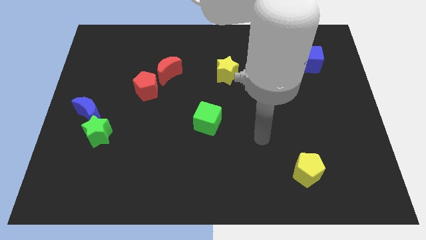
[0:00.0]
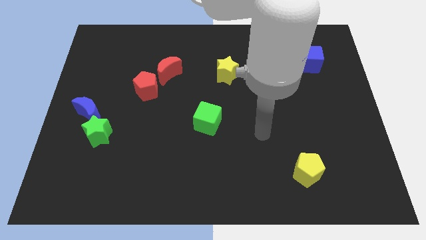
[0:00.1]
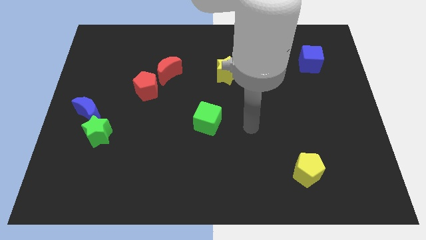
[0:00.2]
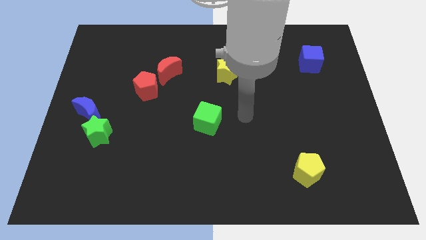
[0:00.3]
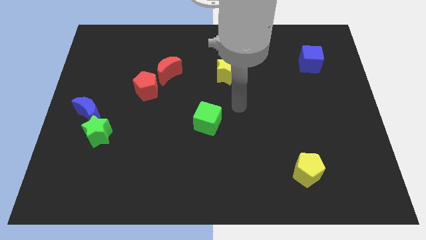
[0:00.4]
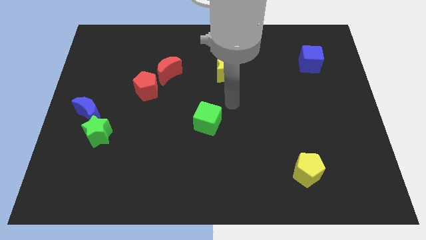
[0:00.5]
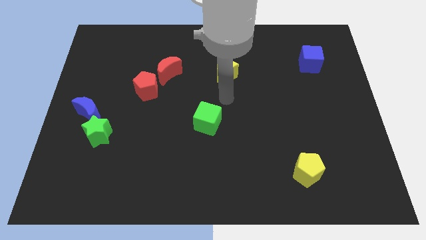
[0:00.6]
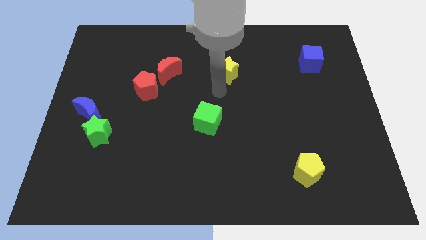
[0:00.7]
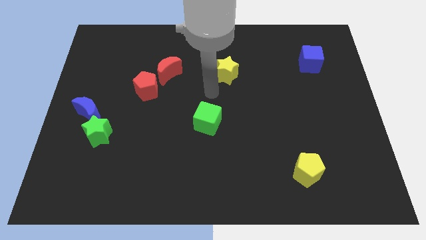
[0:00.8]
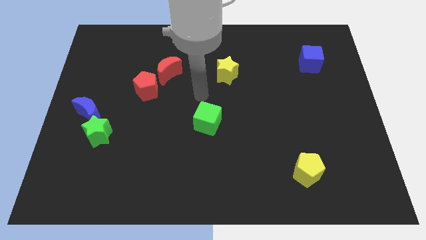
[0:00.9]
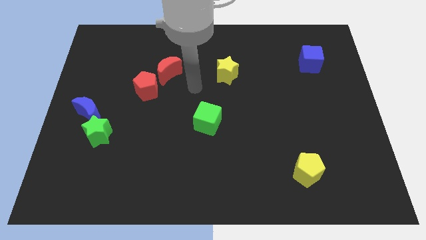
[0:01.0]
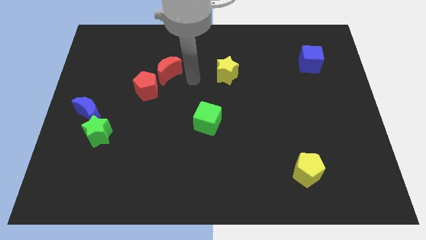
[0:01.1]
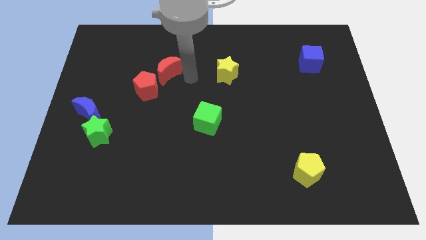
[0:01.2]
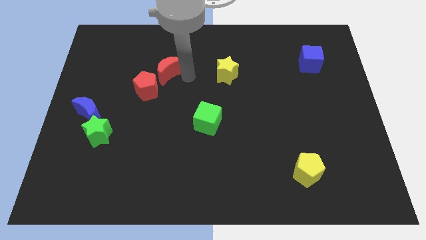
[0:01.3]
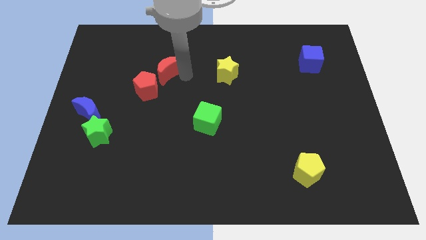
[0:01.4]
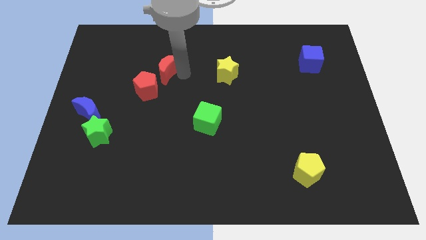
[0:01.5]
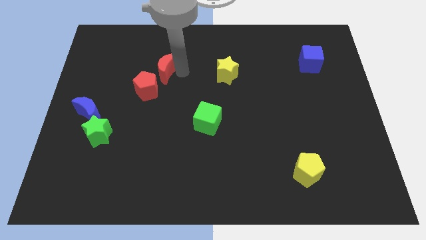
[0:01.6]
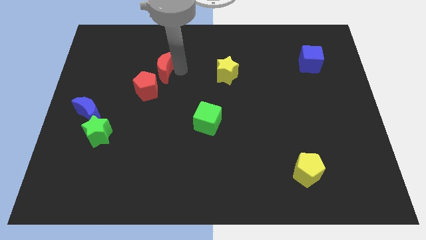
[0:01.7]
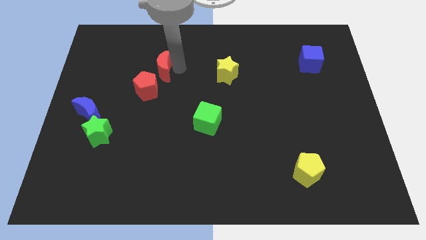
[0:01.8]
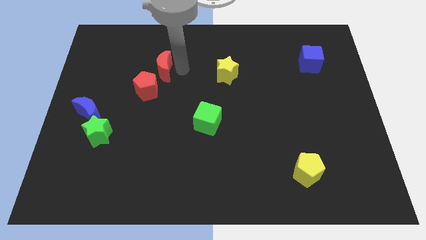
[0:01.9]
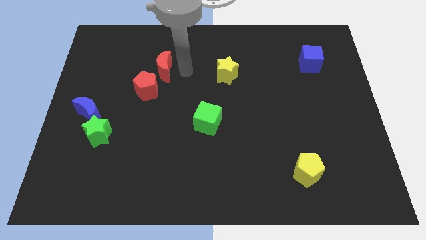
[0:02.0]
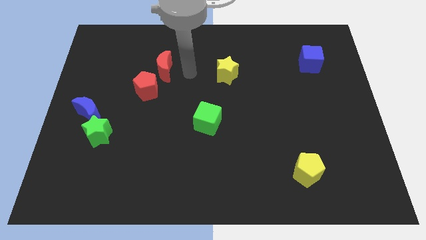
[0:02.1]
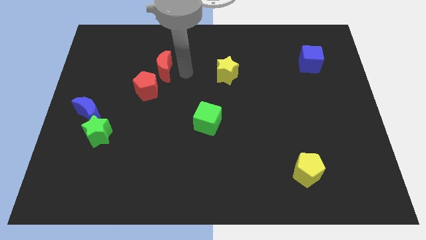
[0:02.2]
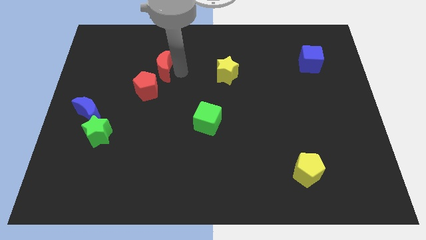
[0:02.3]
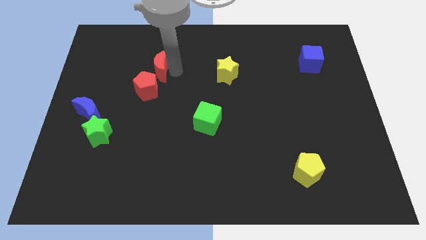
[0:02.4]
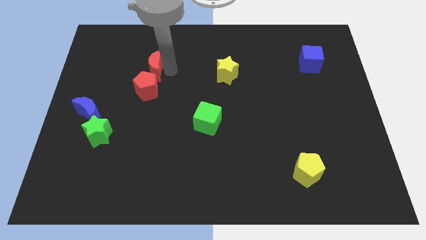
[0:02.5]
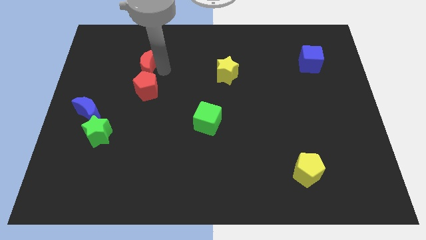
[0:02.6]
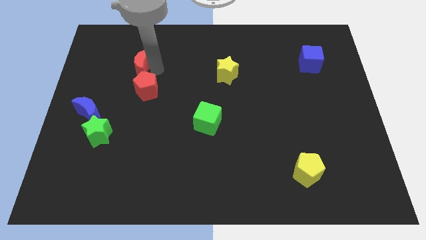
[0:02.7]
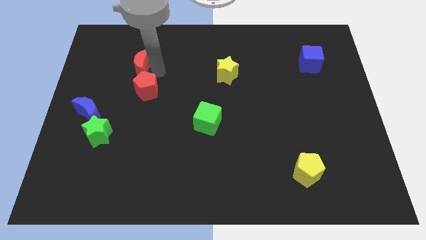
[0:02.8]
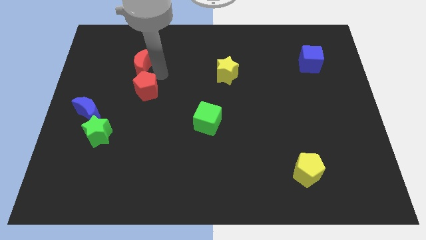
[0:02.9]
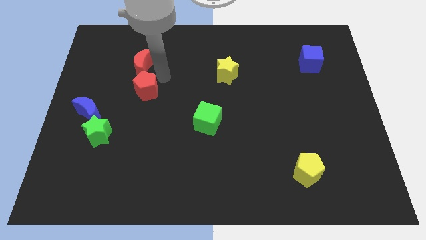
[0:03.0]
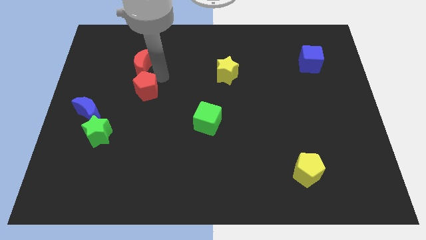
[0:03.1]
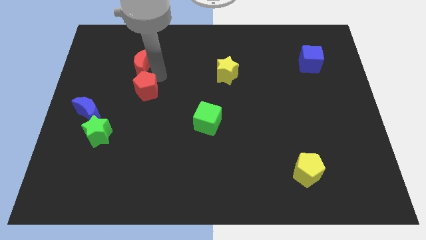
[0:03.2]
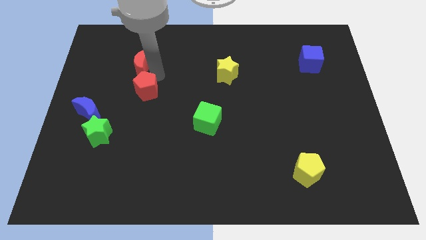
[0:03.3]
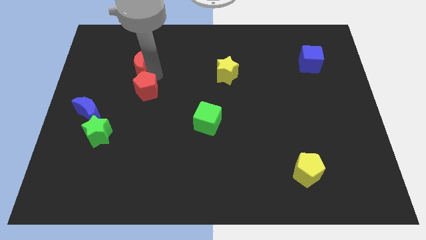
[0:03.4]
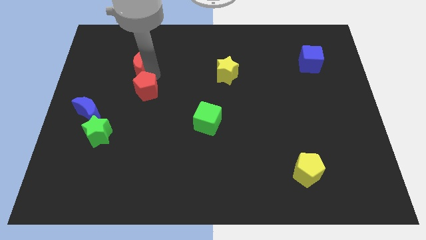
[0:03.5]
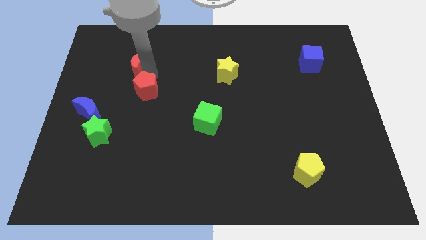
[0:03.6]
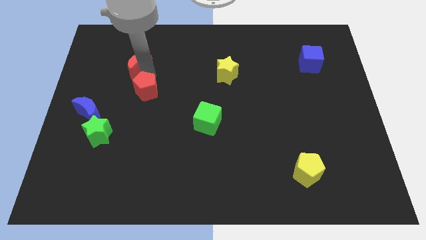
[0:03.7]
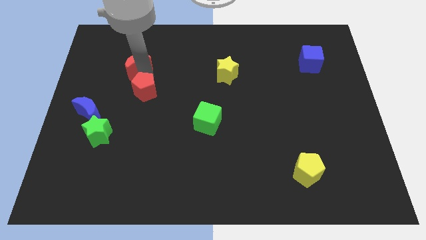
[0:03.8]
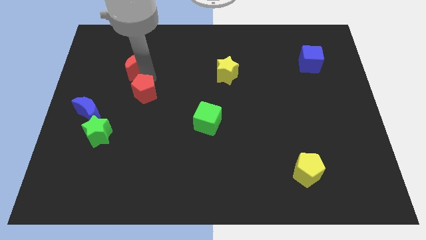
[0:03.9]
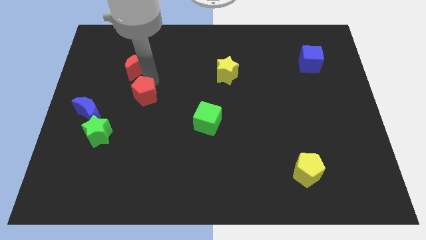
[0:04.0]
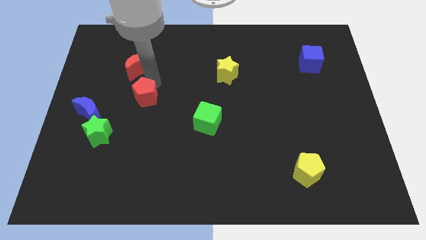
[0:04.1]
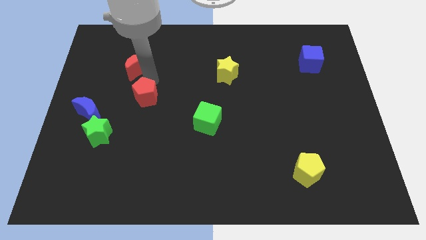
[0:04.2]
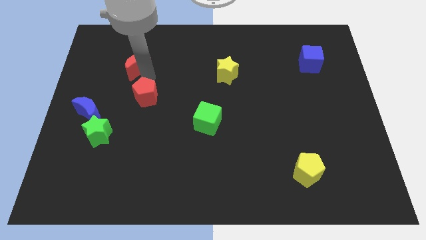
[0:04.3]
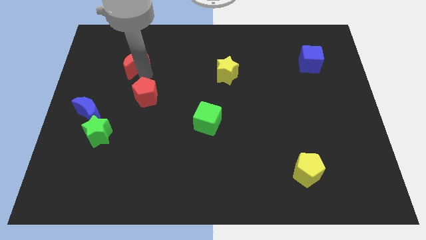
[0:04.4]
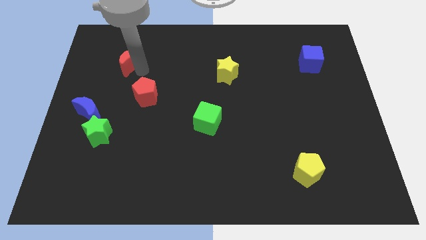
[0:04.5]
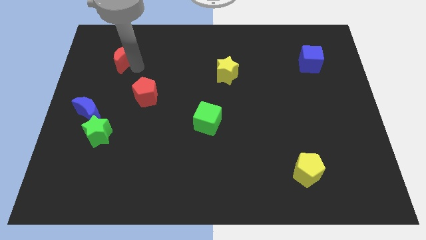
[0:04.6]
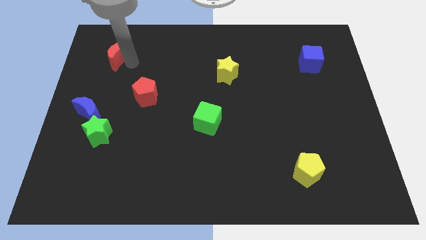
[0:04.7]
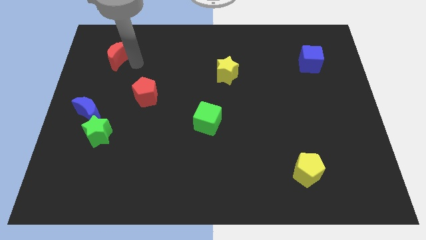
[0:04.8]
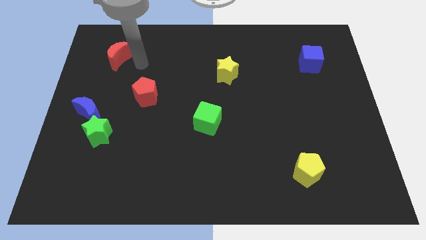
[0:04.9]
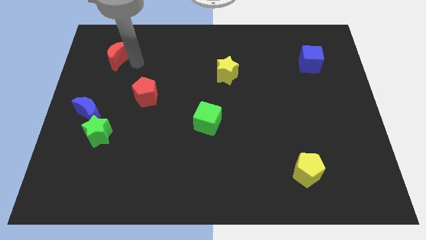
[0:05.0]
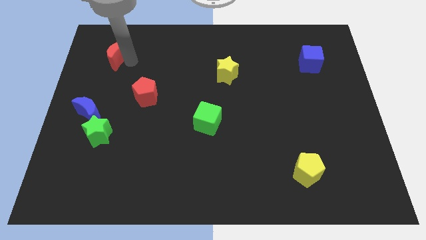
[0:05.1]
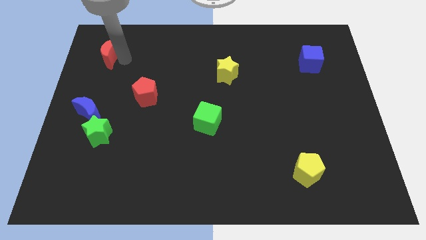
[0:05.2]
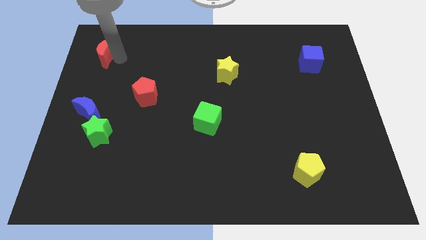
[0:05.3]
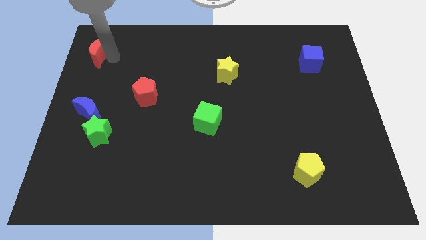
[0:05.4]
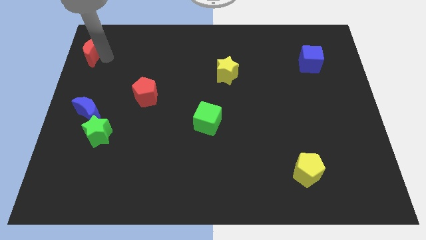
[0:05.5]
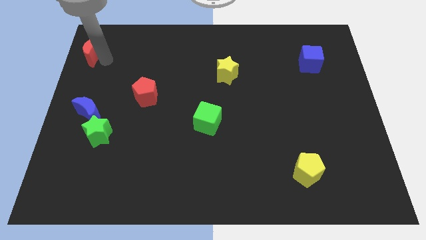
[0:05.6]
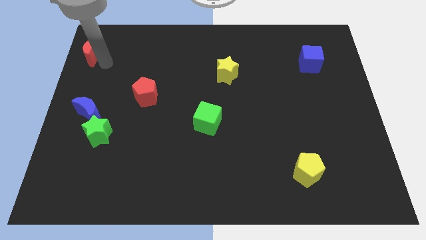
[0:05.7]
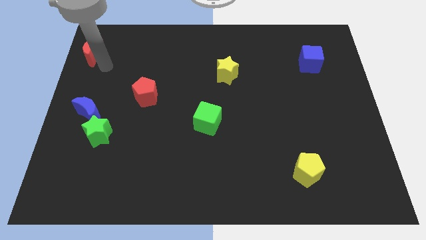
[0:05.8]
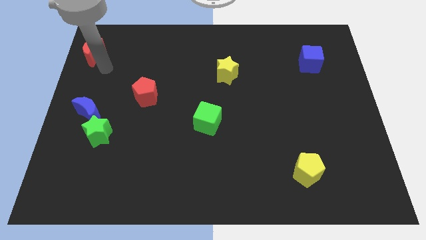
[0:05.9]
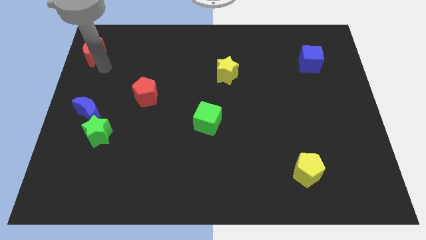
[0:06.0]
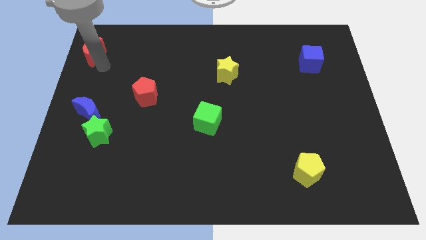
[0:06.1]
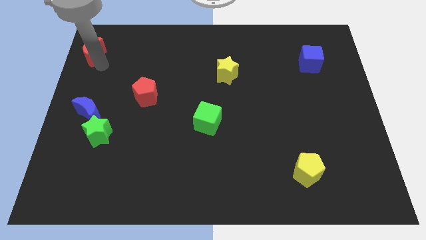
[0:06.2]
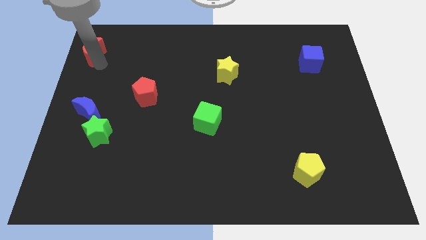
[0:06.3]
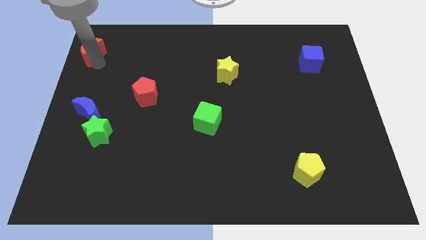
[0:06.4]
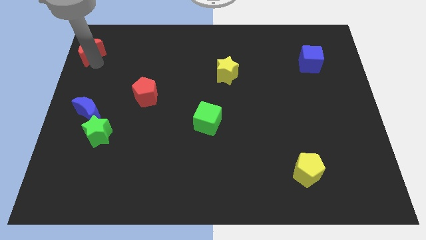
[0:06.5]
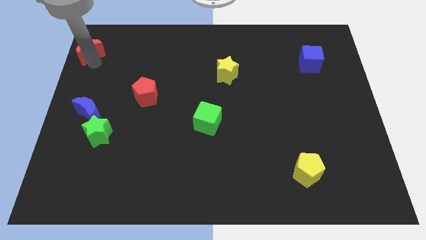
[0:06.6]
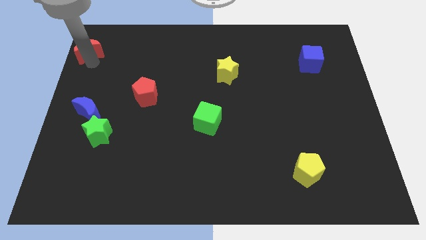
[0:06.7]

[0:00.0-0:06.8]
put the red moon to the top left

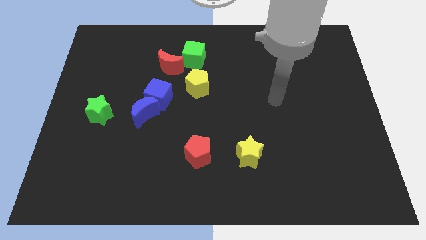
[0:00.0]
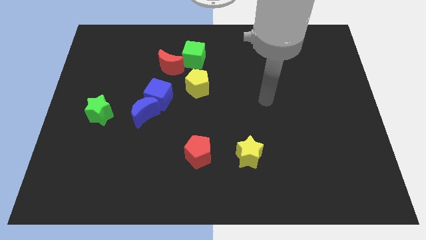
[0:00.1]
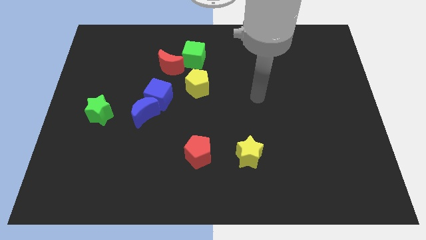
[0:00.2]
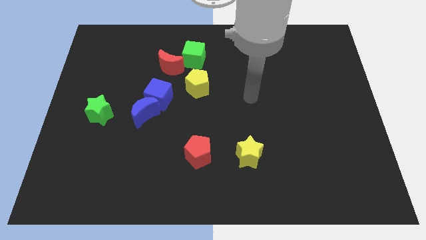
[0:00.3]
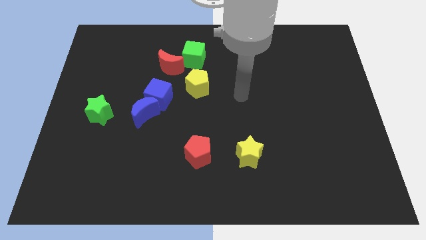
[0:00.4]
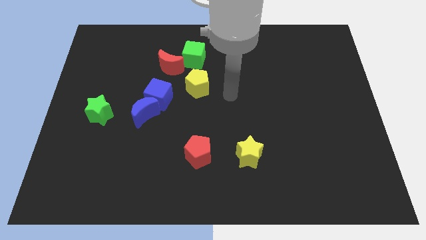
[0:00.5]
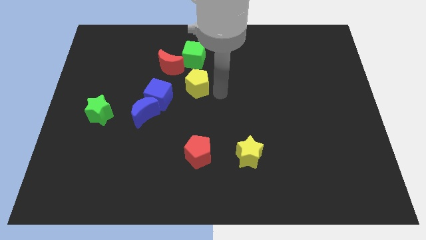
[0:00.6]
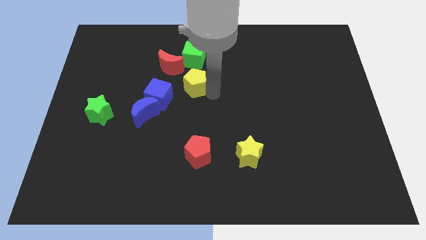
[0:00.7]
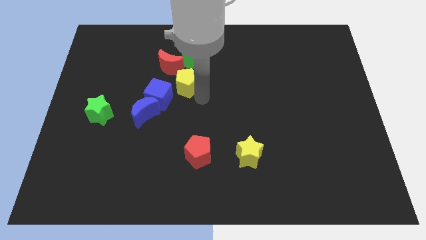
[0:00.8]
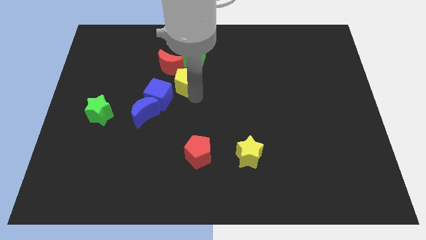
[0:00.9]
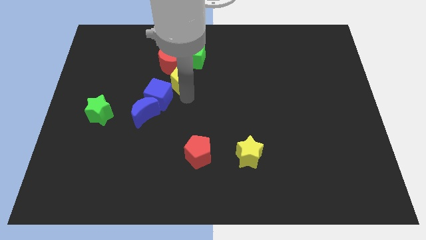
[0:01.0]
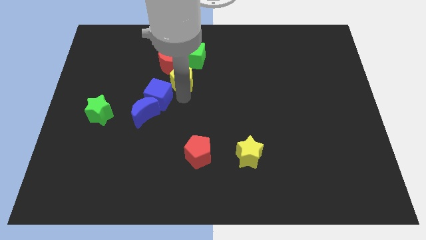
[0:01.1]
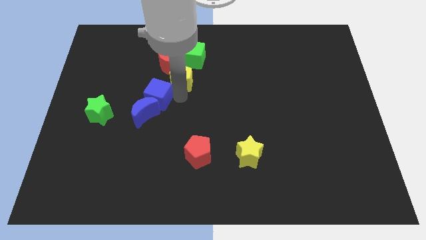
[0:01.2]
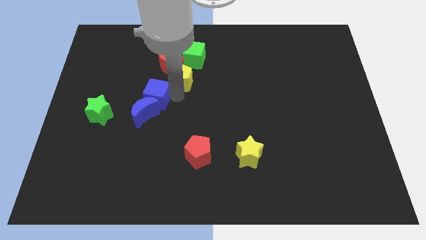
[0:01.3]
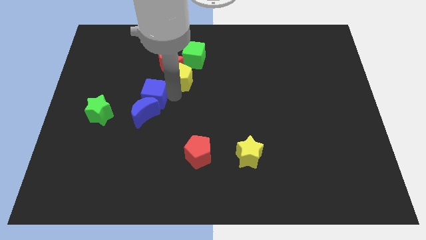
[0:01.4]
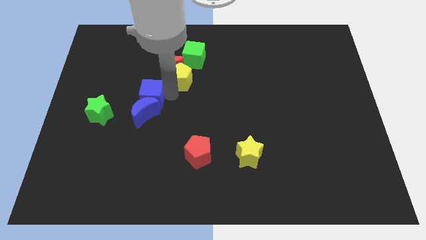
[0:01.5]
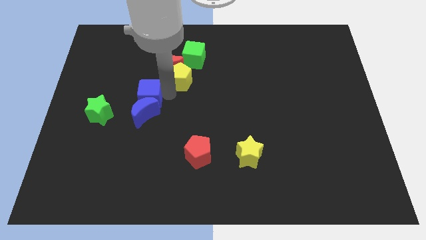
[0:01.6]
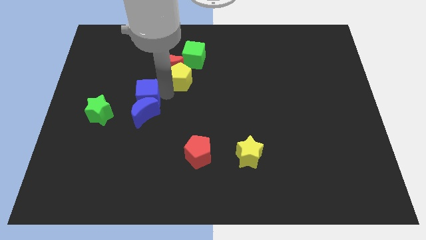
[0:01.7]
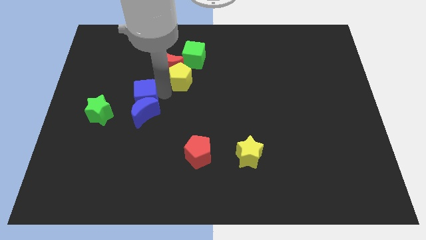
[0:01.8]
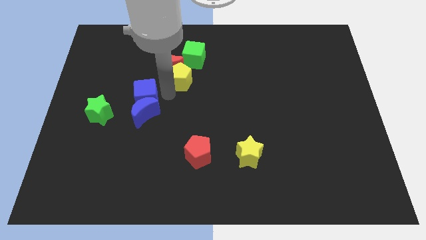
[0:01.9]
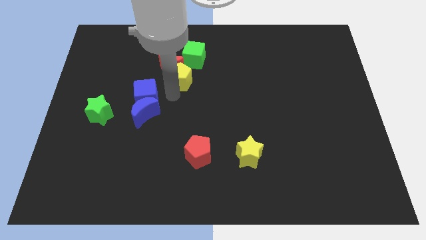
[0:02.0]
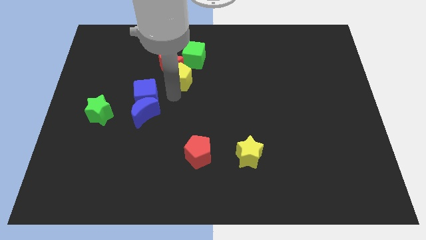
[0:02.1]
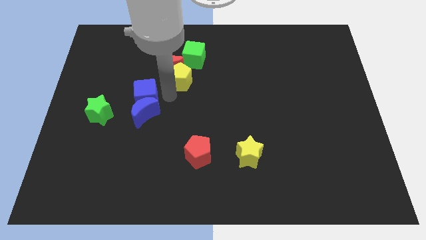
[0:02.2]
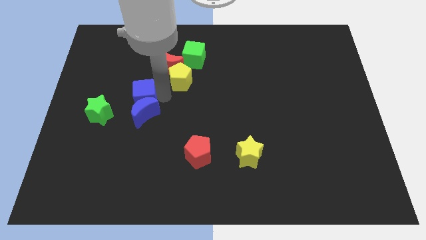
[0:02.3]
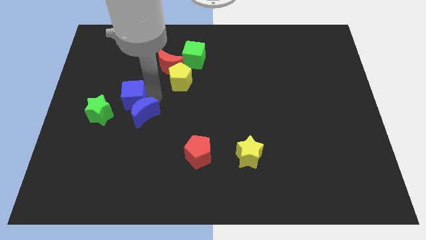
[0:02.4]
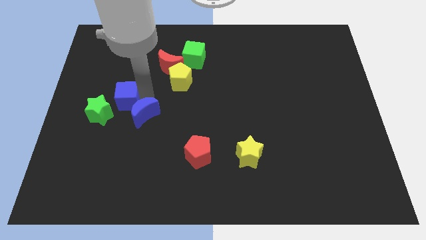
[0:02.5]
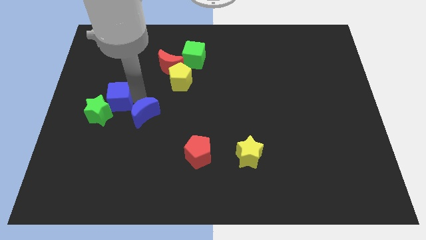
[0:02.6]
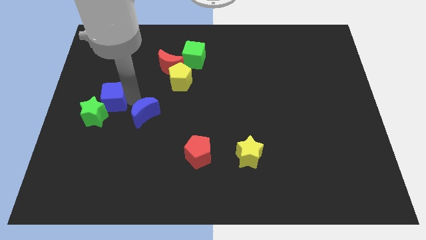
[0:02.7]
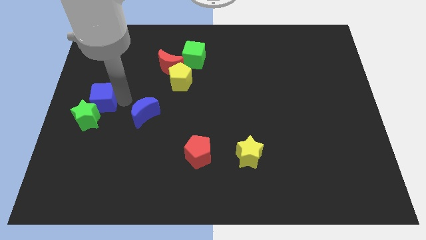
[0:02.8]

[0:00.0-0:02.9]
slide the blue cube to the center left
